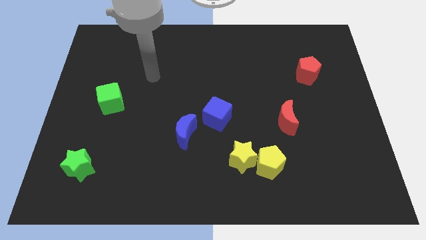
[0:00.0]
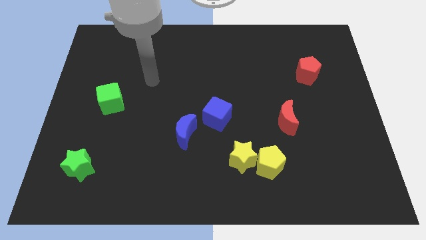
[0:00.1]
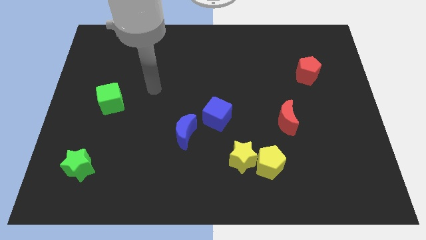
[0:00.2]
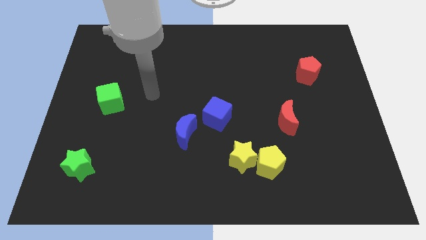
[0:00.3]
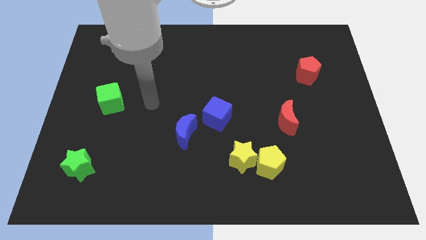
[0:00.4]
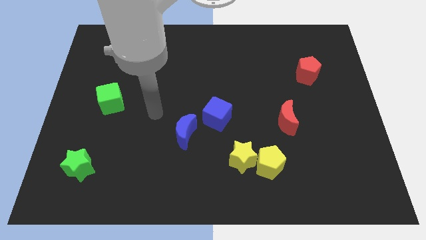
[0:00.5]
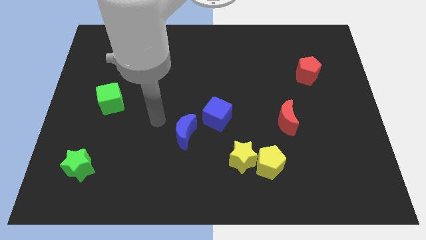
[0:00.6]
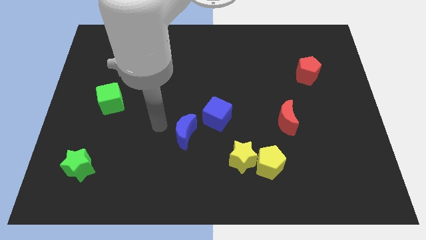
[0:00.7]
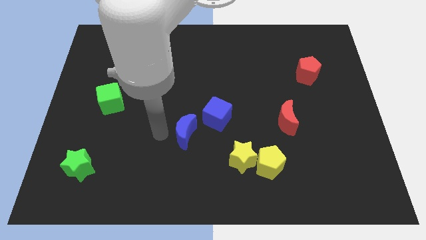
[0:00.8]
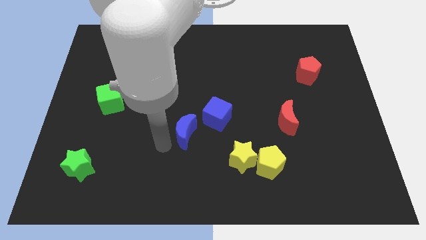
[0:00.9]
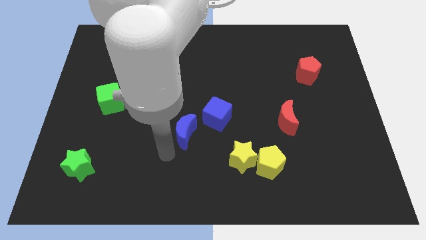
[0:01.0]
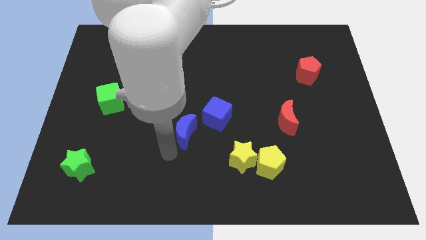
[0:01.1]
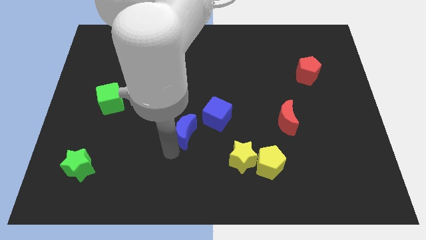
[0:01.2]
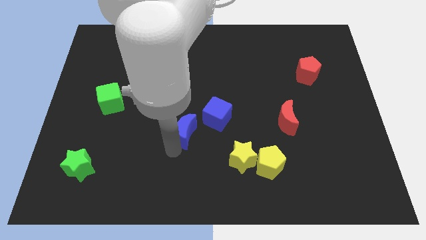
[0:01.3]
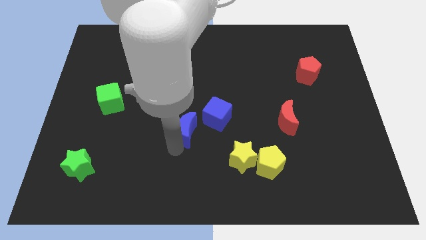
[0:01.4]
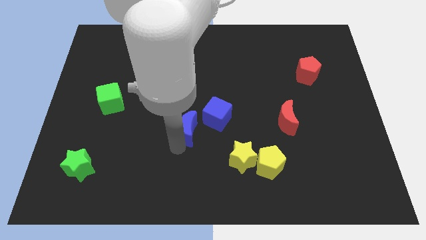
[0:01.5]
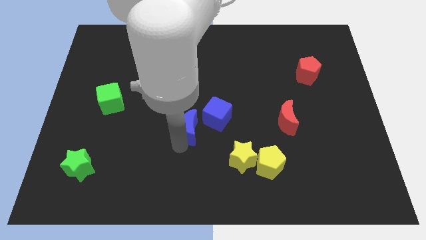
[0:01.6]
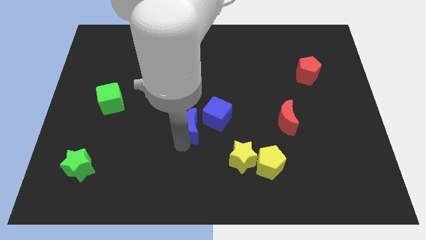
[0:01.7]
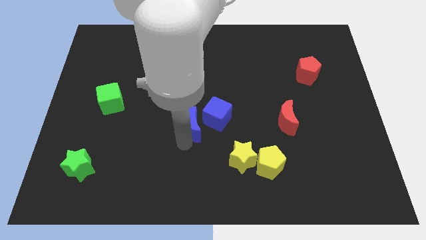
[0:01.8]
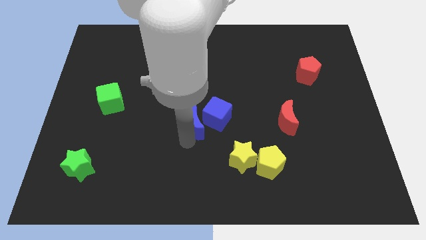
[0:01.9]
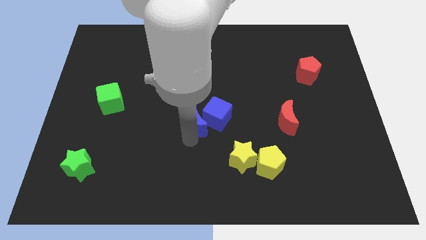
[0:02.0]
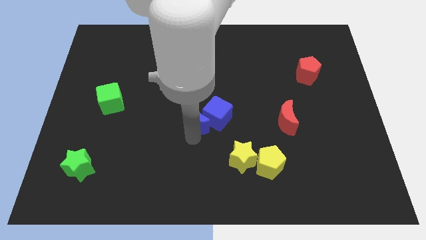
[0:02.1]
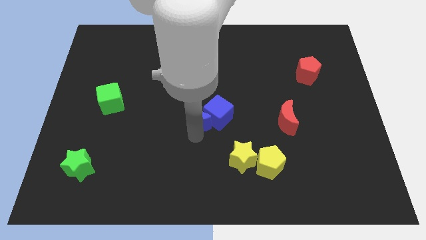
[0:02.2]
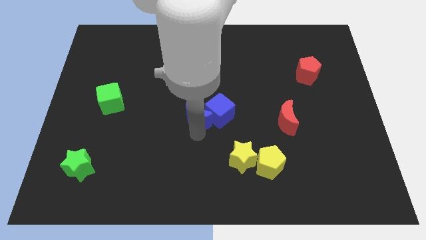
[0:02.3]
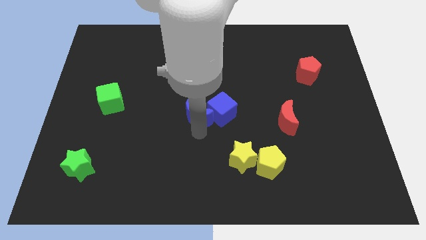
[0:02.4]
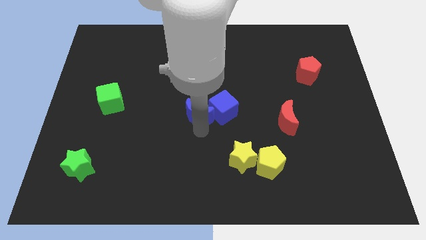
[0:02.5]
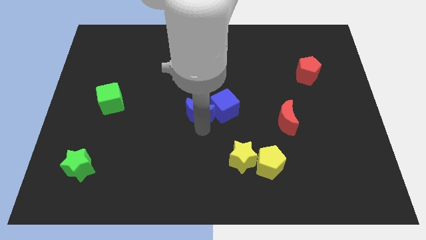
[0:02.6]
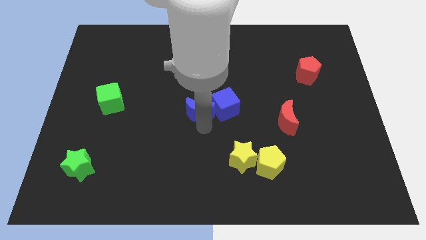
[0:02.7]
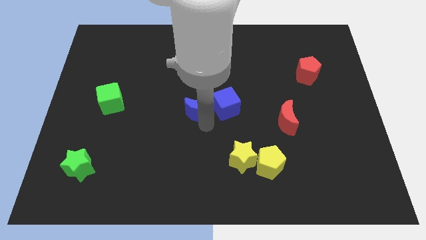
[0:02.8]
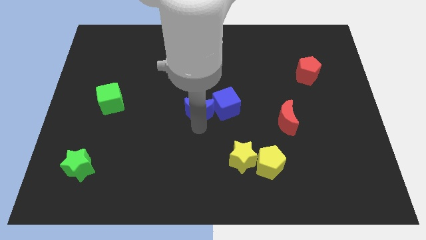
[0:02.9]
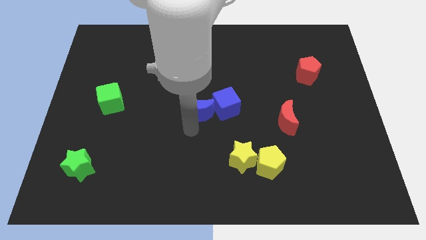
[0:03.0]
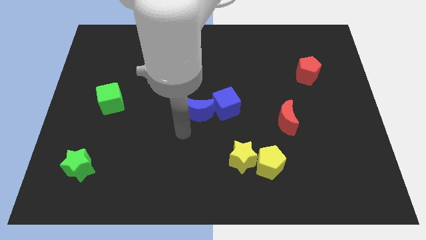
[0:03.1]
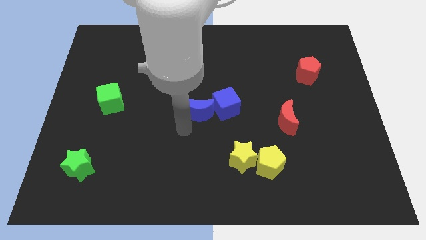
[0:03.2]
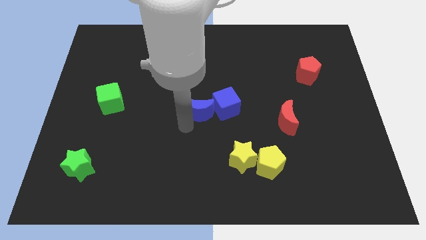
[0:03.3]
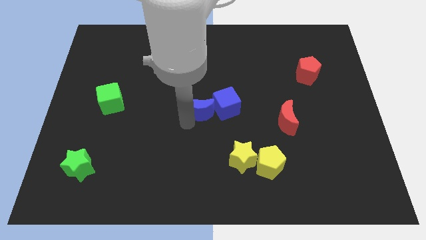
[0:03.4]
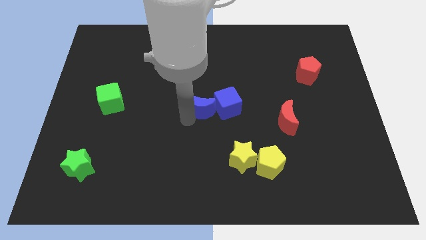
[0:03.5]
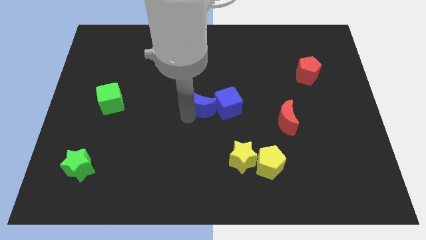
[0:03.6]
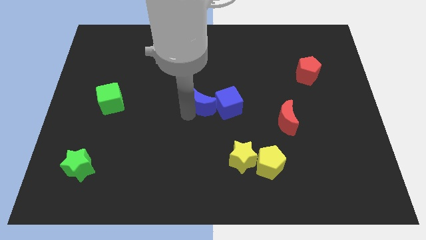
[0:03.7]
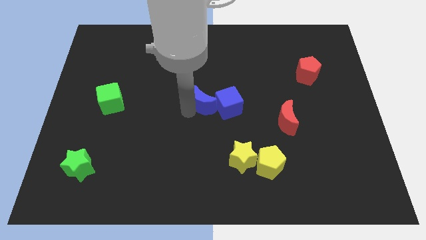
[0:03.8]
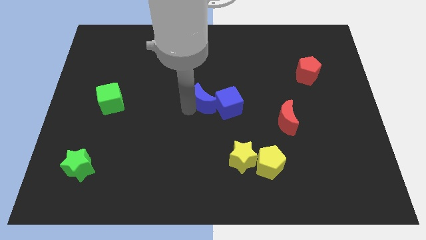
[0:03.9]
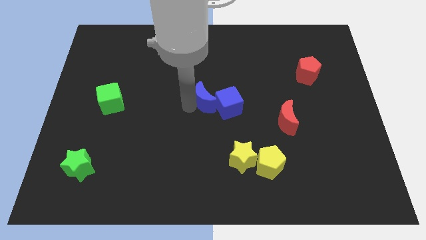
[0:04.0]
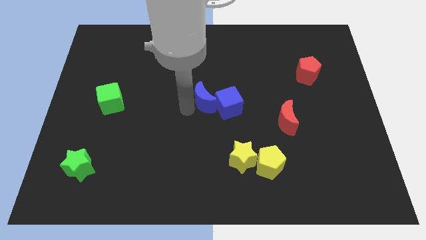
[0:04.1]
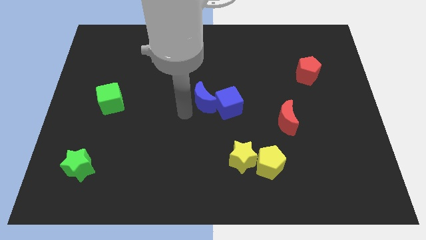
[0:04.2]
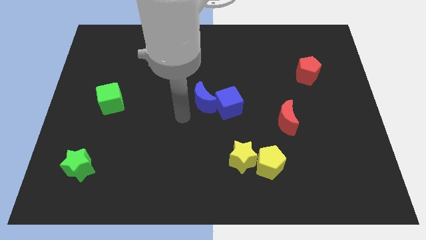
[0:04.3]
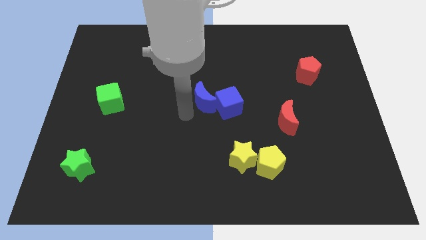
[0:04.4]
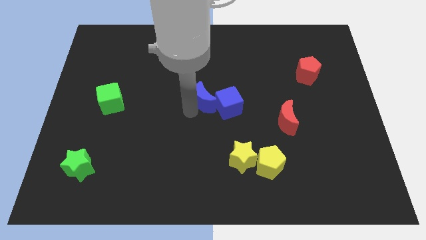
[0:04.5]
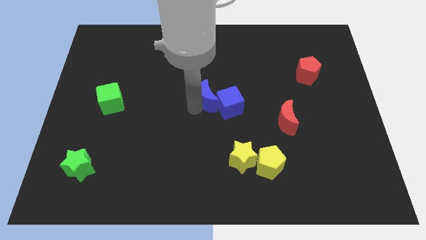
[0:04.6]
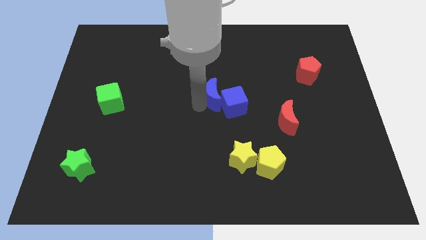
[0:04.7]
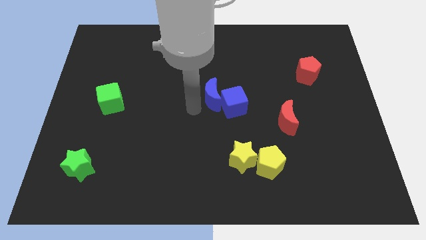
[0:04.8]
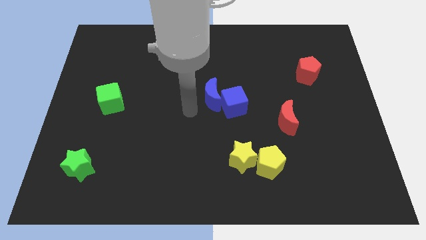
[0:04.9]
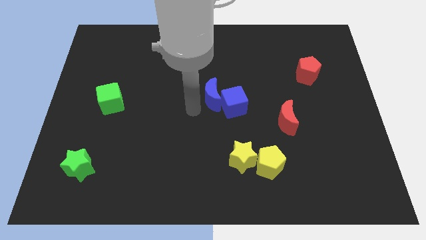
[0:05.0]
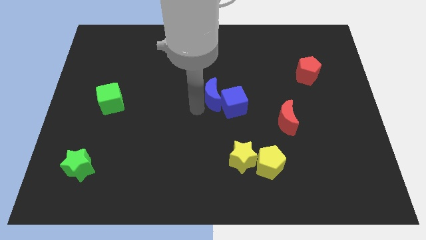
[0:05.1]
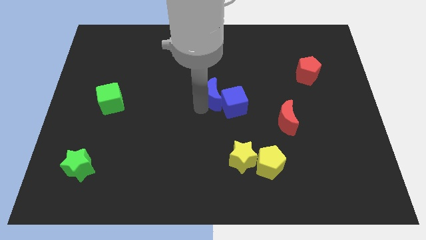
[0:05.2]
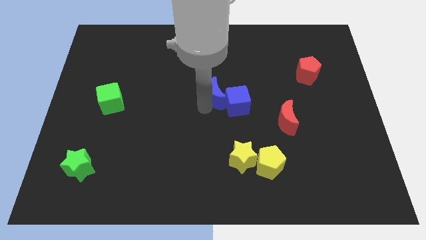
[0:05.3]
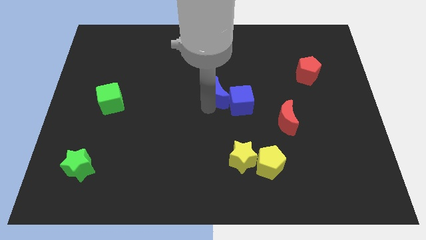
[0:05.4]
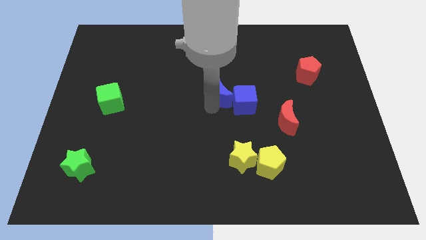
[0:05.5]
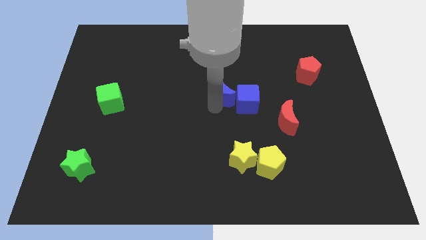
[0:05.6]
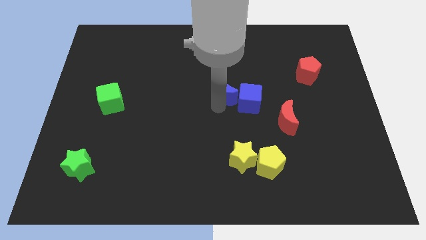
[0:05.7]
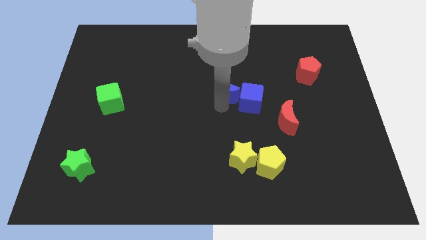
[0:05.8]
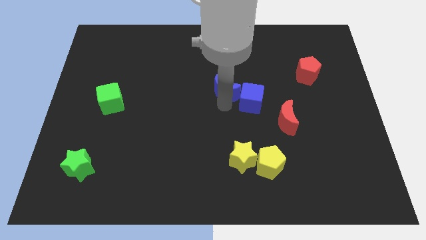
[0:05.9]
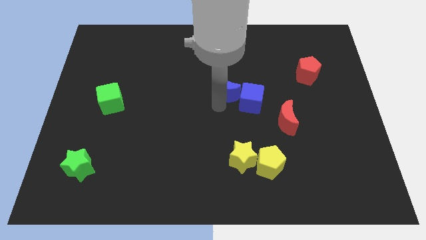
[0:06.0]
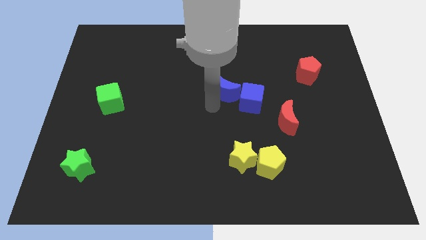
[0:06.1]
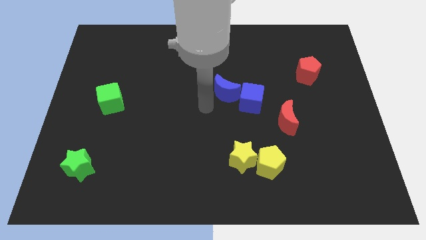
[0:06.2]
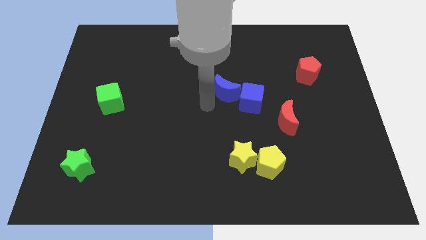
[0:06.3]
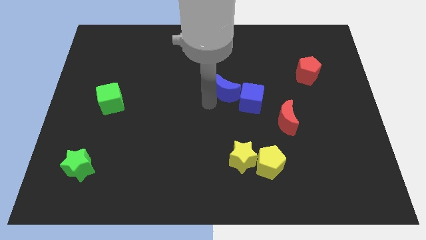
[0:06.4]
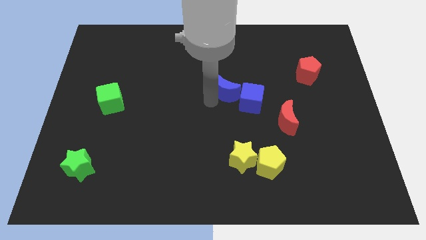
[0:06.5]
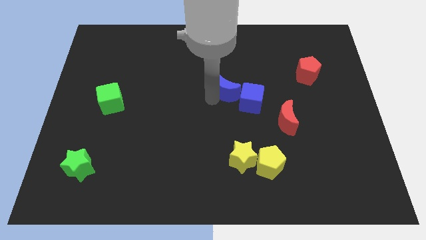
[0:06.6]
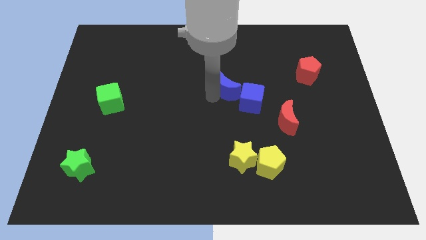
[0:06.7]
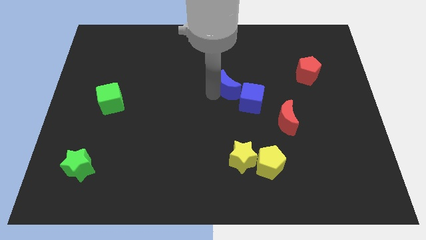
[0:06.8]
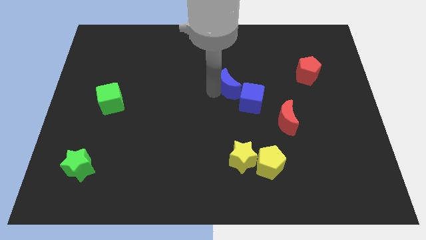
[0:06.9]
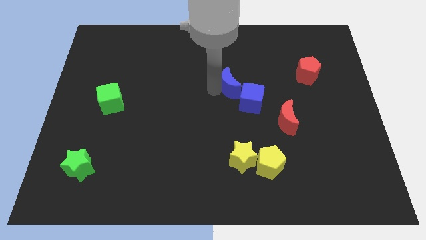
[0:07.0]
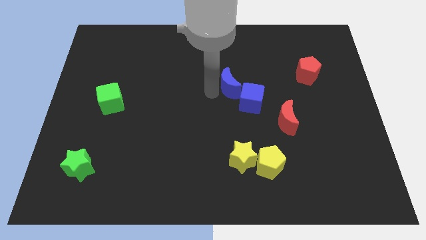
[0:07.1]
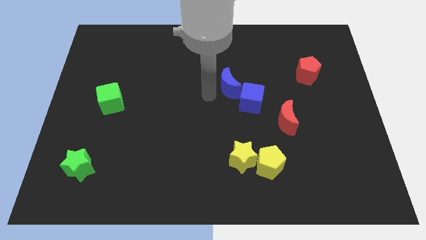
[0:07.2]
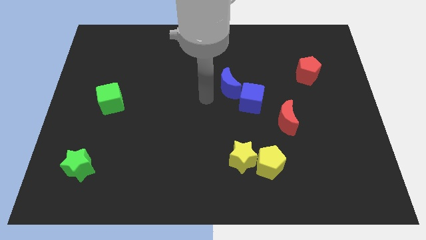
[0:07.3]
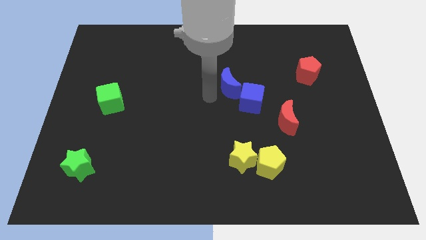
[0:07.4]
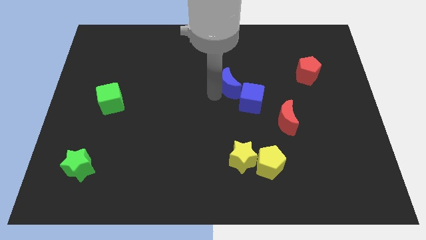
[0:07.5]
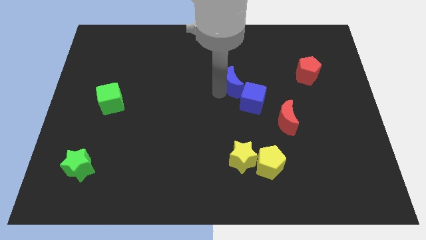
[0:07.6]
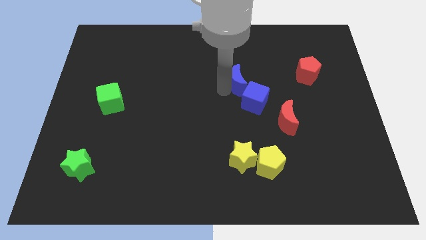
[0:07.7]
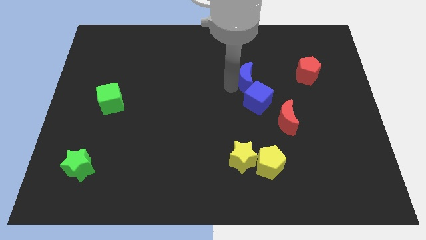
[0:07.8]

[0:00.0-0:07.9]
push the blue moon to the left of the red pentagon
